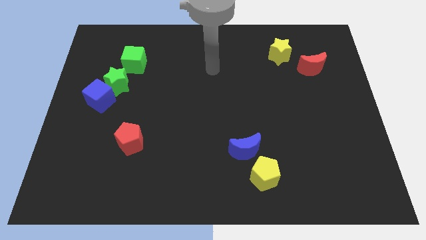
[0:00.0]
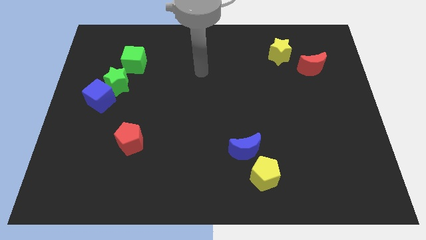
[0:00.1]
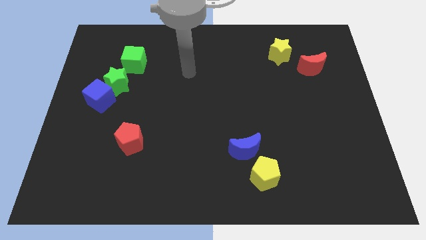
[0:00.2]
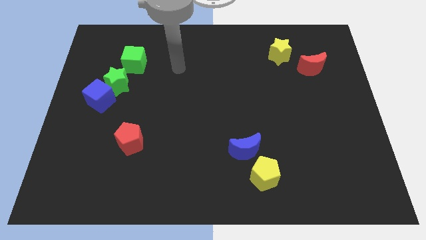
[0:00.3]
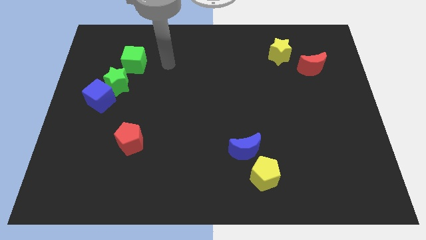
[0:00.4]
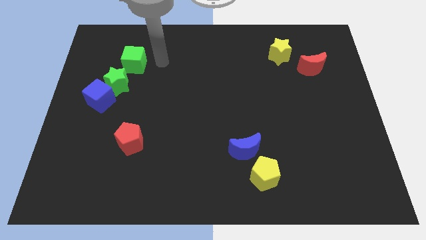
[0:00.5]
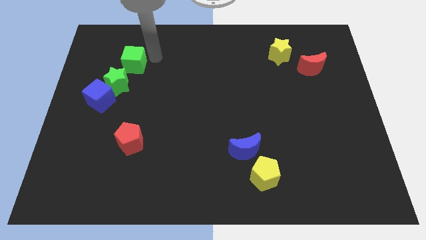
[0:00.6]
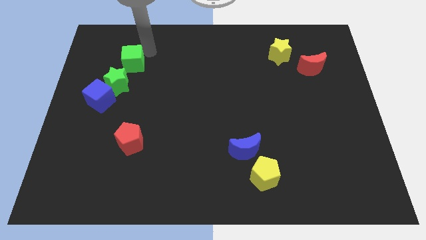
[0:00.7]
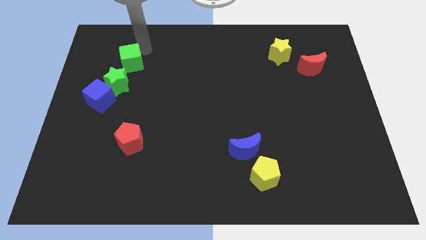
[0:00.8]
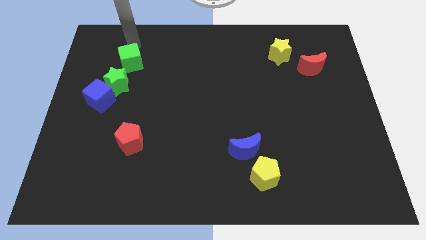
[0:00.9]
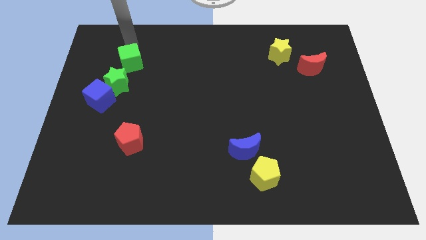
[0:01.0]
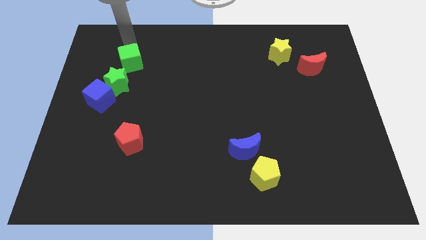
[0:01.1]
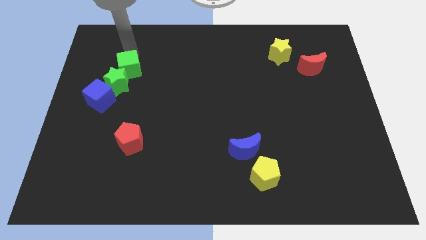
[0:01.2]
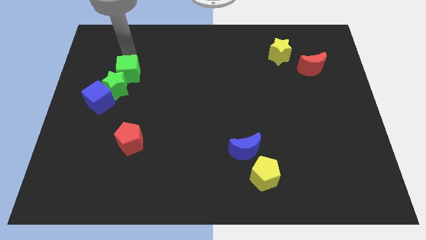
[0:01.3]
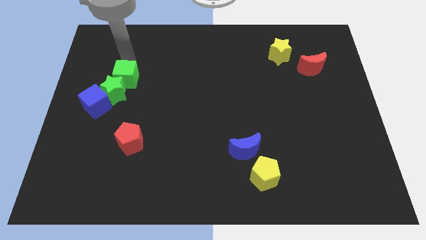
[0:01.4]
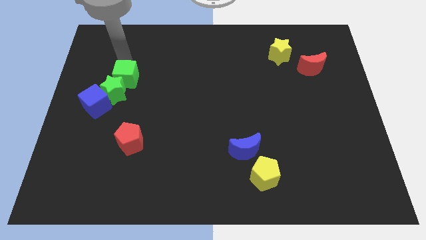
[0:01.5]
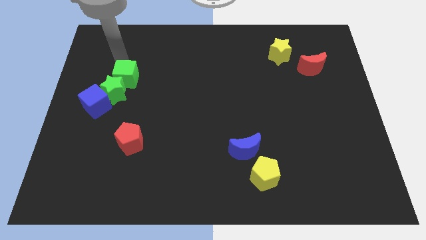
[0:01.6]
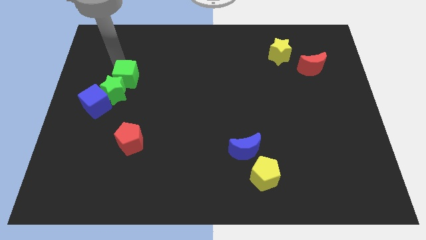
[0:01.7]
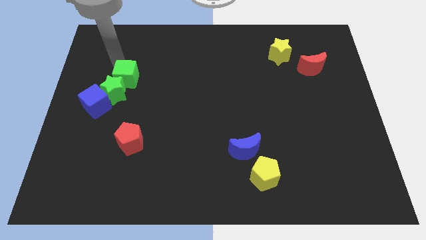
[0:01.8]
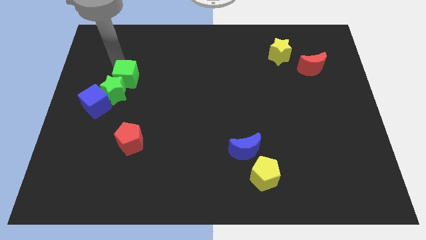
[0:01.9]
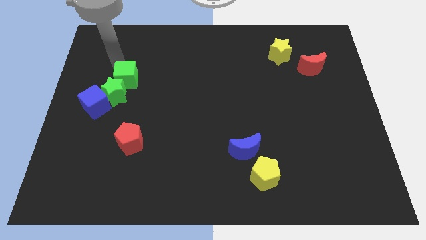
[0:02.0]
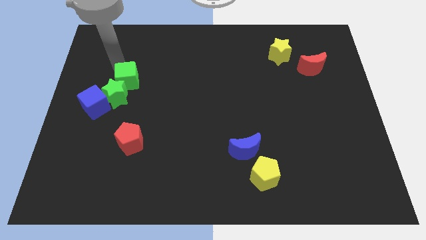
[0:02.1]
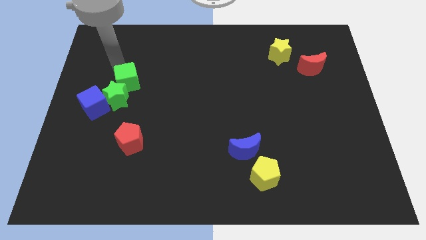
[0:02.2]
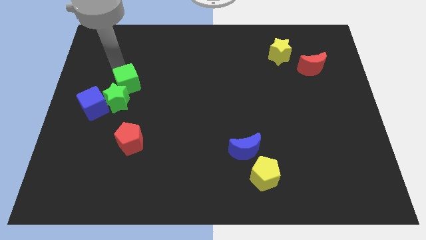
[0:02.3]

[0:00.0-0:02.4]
slightly push the green cube down

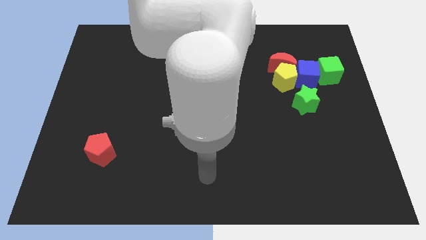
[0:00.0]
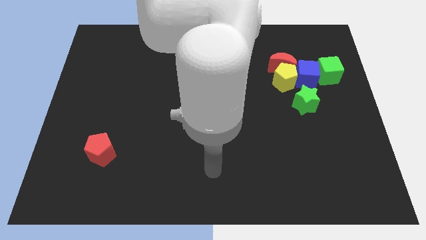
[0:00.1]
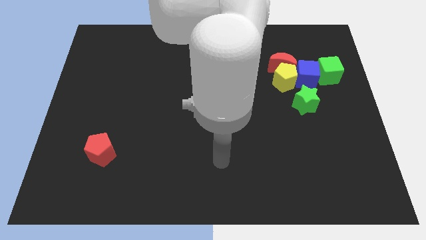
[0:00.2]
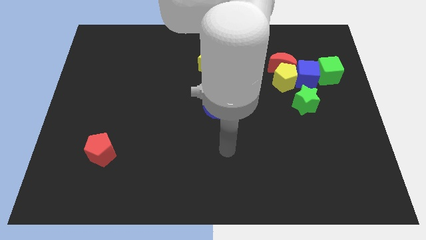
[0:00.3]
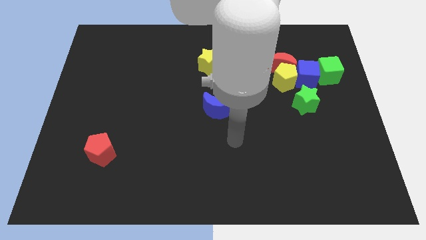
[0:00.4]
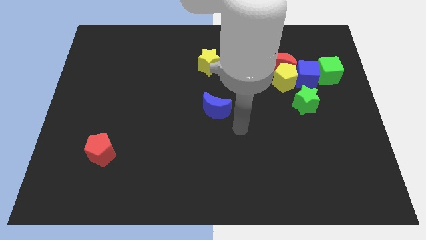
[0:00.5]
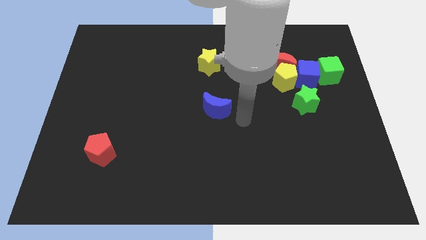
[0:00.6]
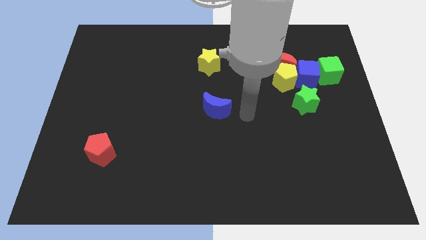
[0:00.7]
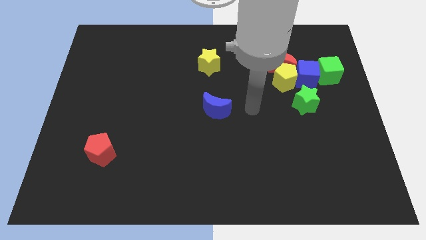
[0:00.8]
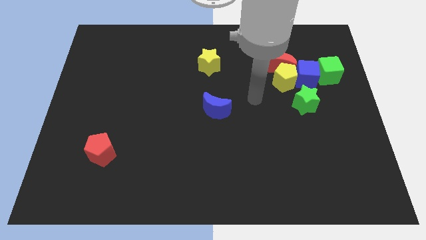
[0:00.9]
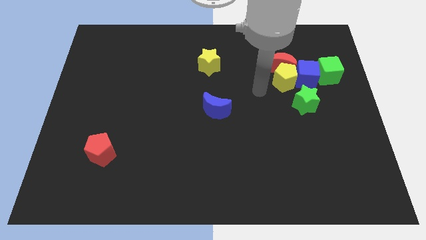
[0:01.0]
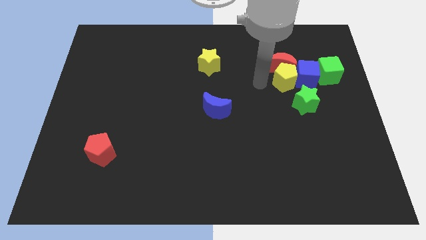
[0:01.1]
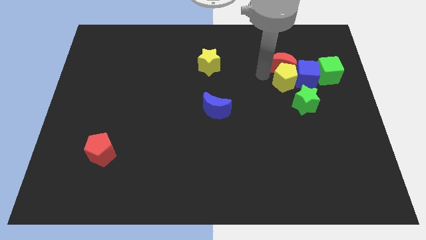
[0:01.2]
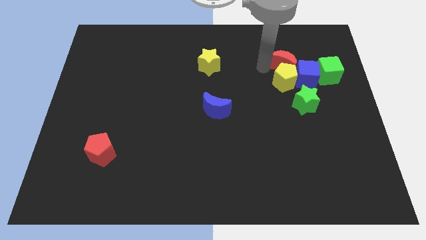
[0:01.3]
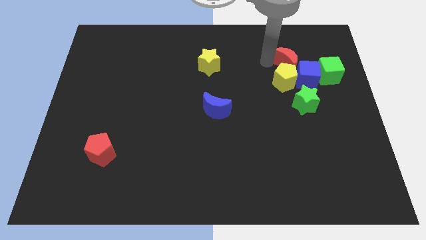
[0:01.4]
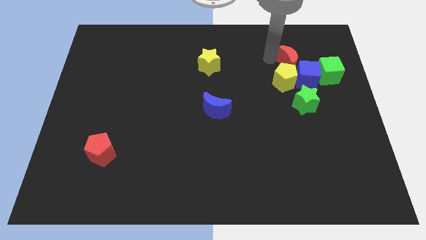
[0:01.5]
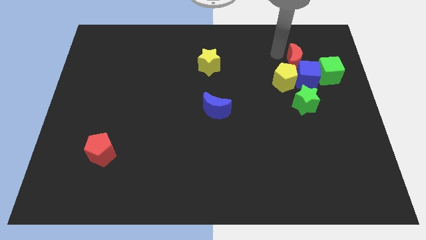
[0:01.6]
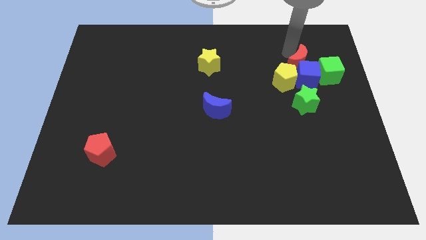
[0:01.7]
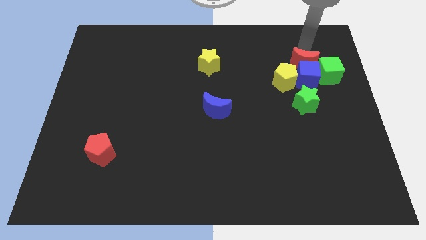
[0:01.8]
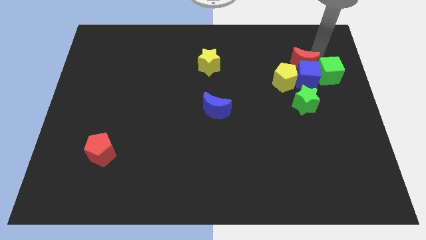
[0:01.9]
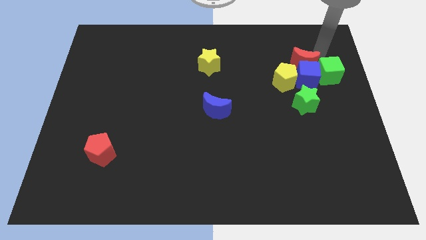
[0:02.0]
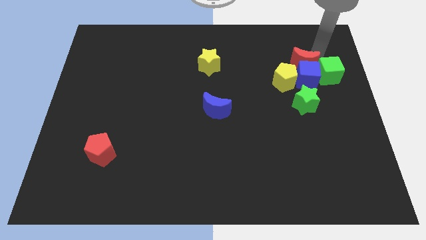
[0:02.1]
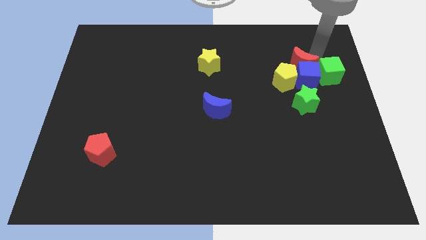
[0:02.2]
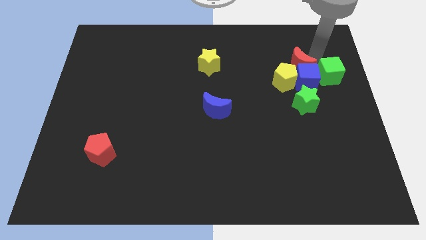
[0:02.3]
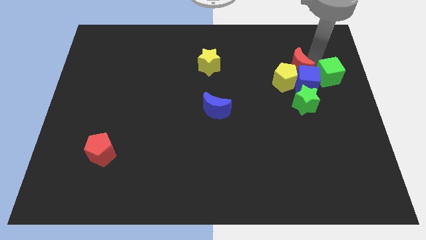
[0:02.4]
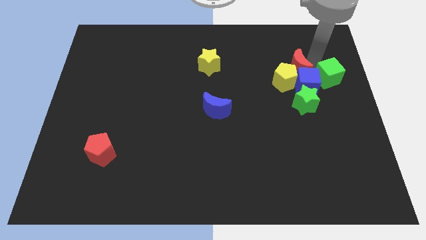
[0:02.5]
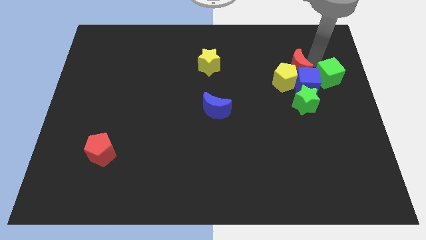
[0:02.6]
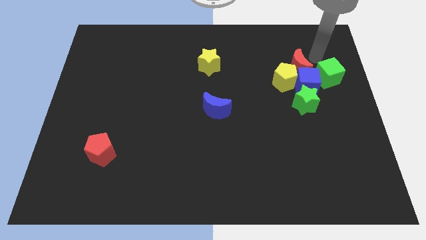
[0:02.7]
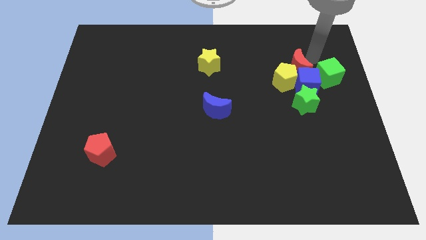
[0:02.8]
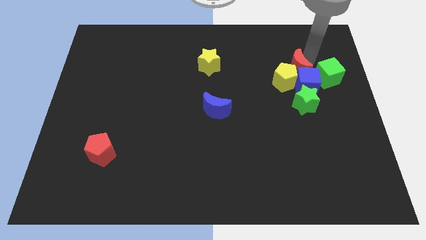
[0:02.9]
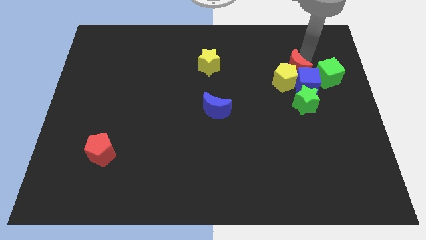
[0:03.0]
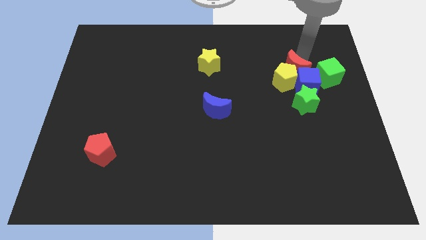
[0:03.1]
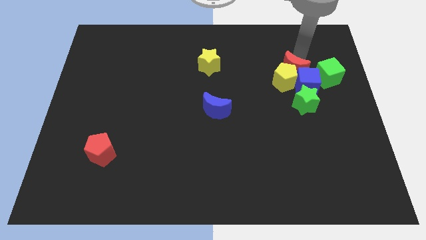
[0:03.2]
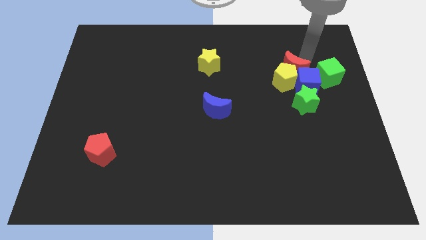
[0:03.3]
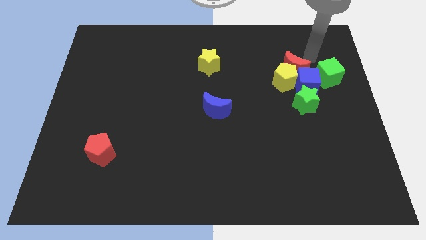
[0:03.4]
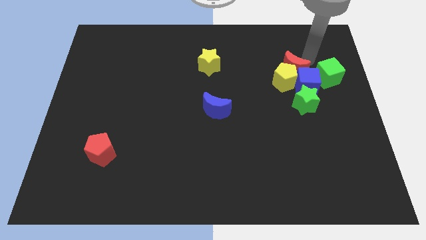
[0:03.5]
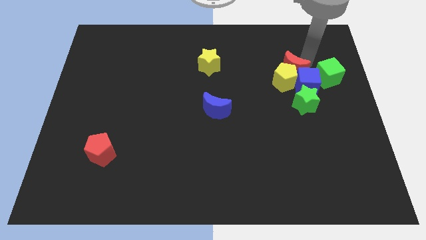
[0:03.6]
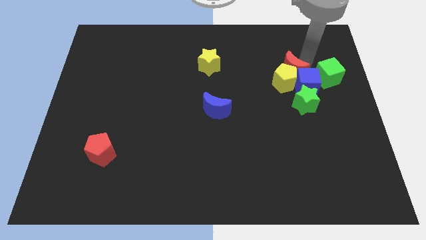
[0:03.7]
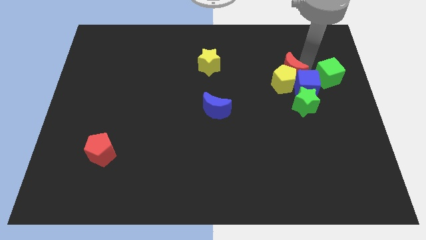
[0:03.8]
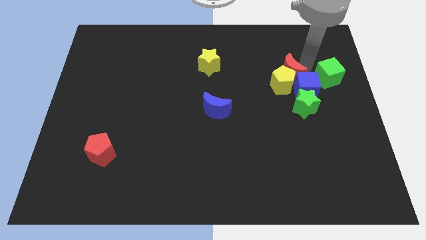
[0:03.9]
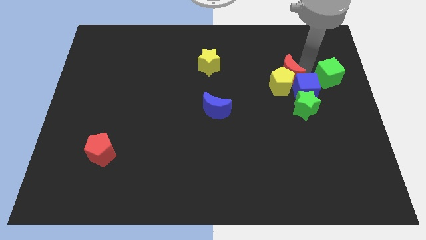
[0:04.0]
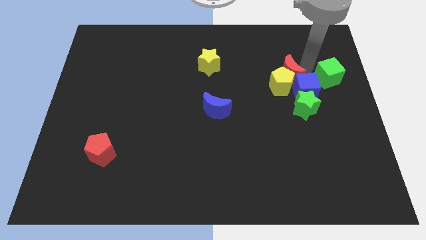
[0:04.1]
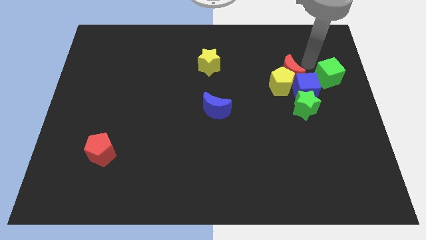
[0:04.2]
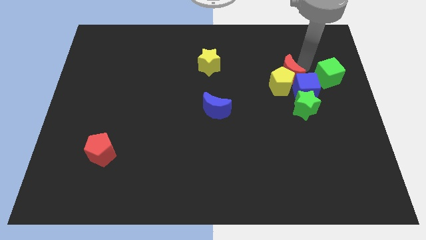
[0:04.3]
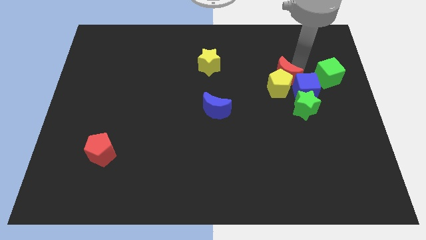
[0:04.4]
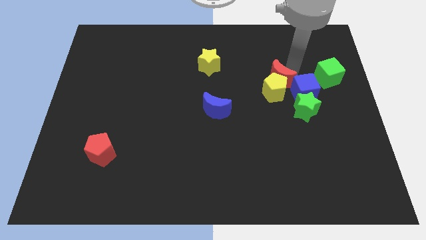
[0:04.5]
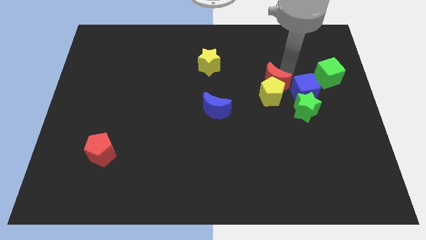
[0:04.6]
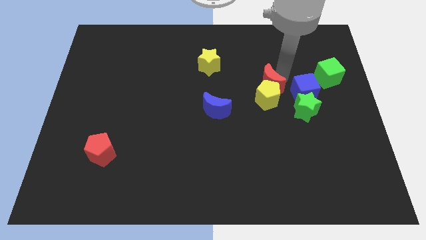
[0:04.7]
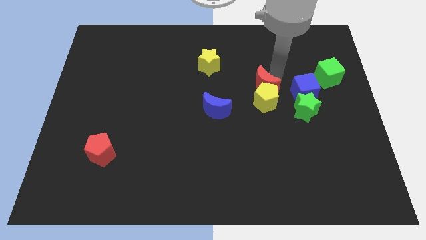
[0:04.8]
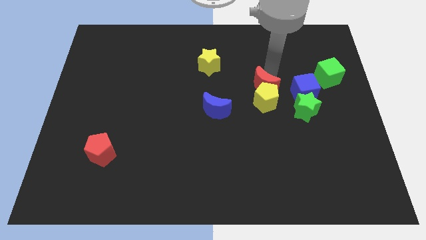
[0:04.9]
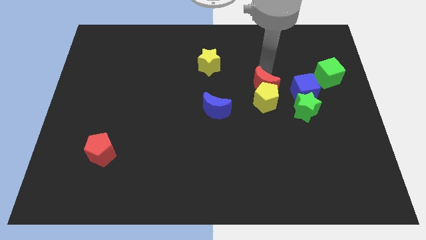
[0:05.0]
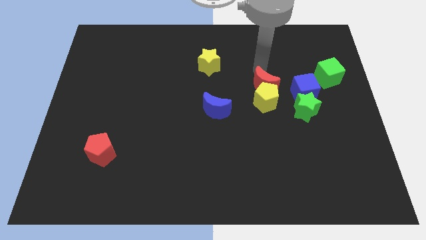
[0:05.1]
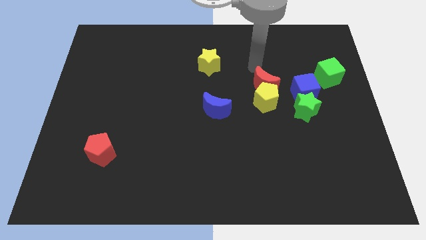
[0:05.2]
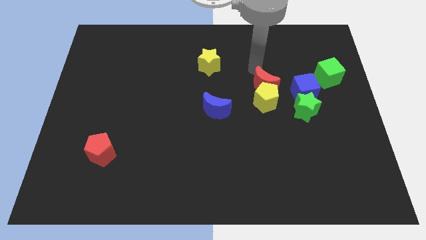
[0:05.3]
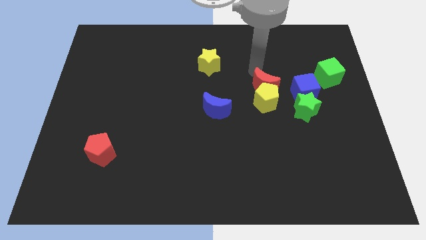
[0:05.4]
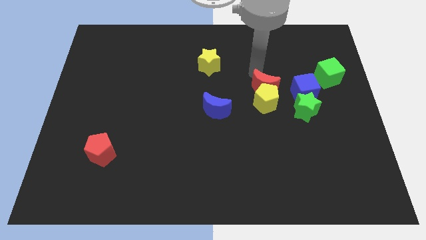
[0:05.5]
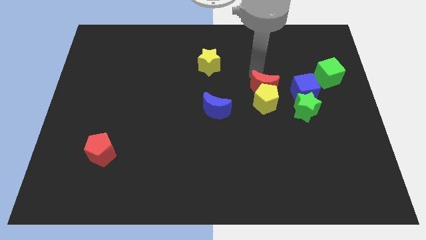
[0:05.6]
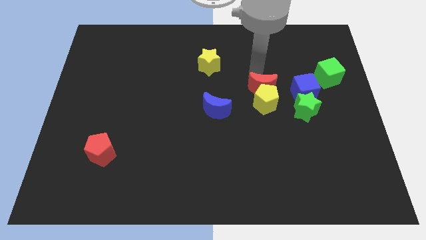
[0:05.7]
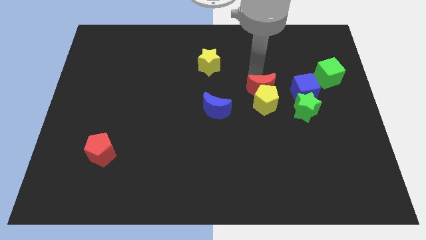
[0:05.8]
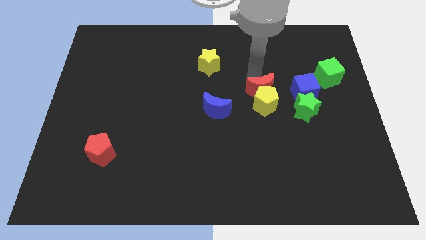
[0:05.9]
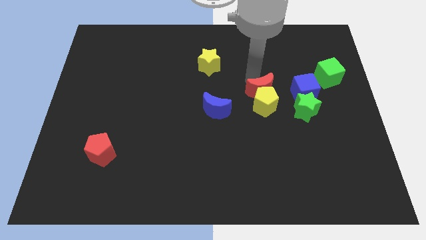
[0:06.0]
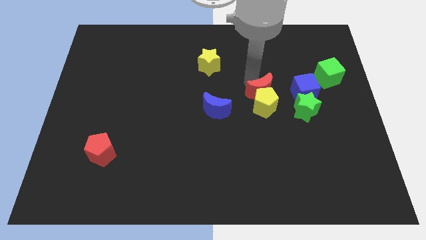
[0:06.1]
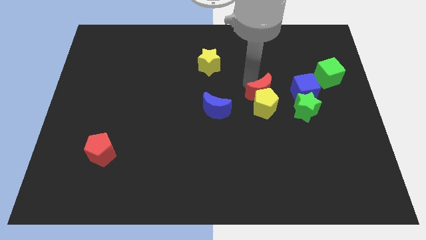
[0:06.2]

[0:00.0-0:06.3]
move the red moon a little downwards
